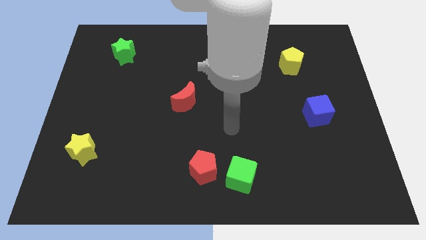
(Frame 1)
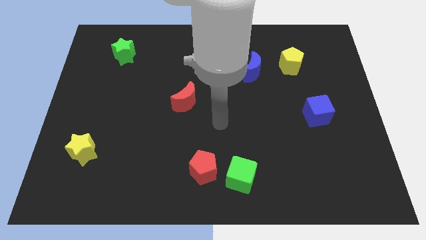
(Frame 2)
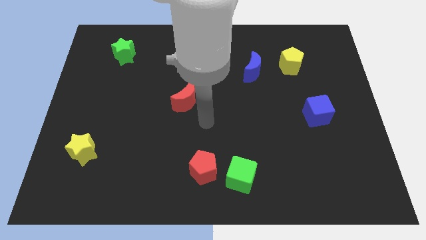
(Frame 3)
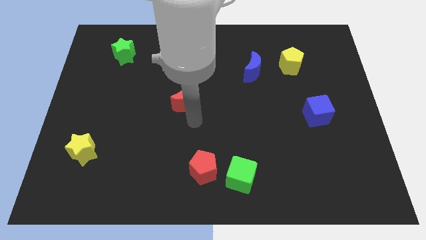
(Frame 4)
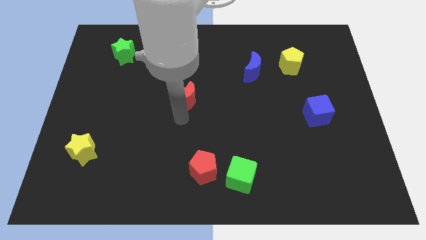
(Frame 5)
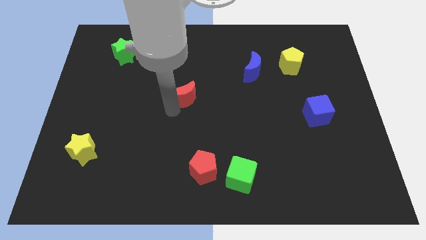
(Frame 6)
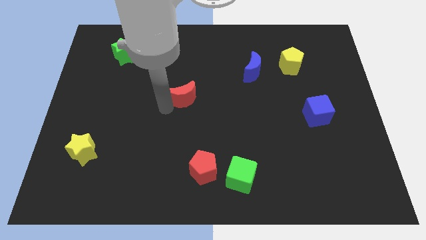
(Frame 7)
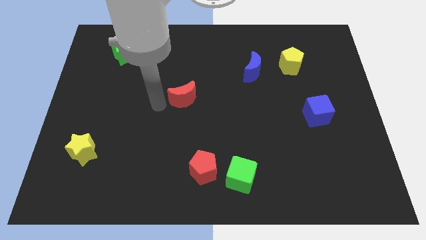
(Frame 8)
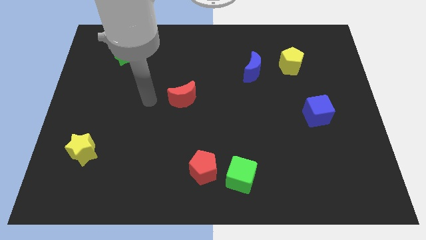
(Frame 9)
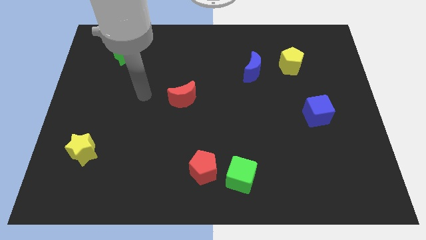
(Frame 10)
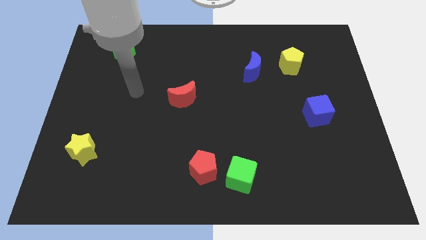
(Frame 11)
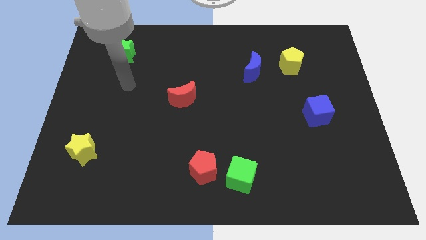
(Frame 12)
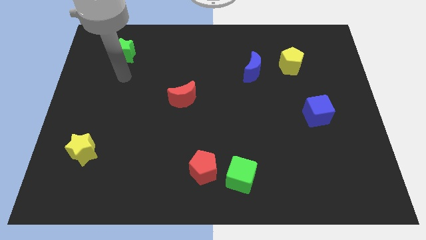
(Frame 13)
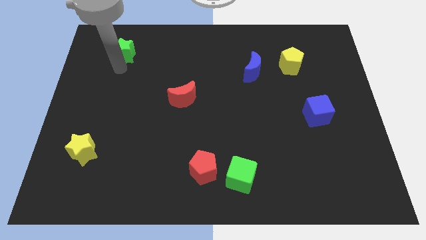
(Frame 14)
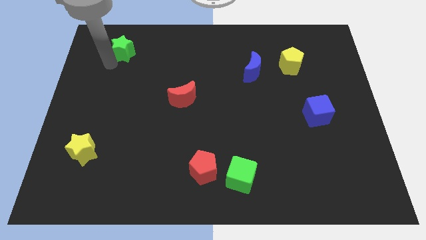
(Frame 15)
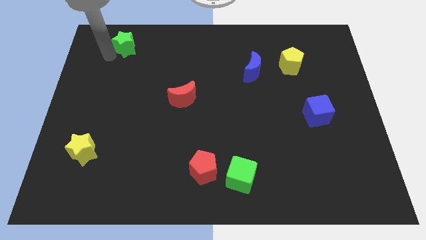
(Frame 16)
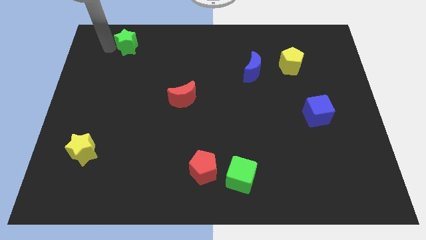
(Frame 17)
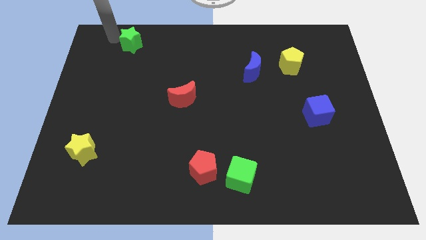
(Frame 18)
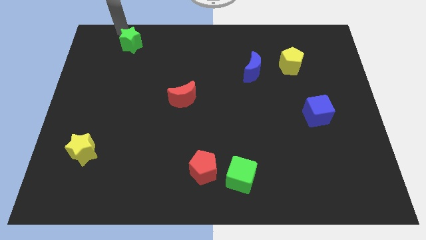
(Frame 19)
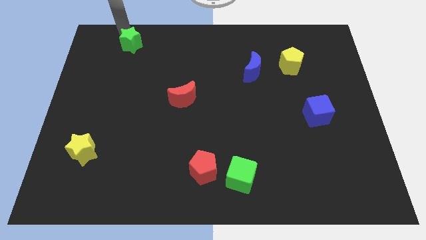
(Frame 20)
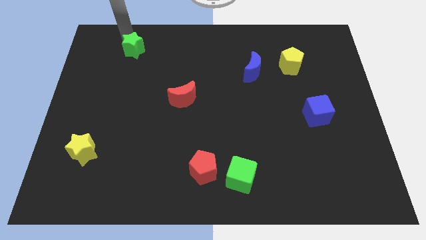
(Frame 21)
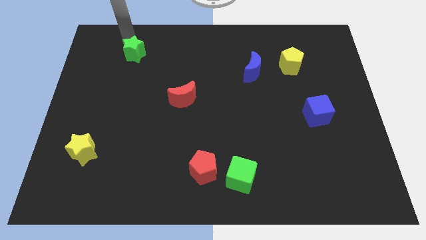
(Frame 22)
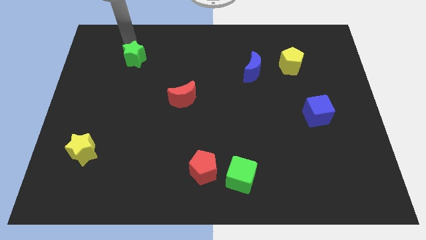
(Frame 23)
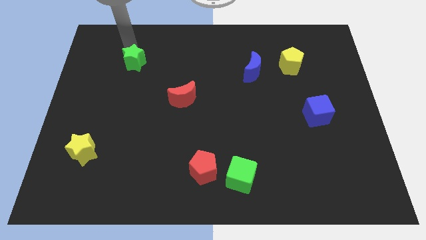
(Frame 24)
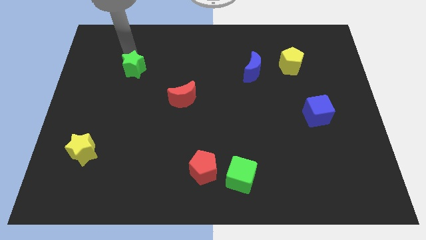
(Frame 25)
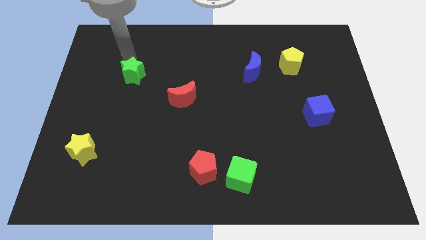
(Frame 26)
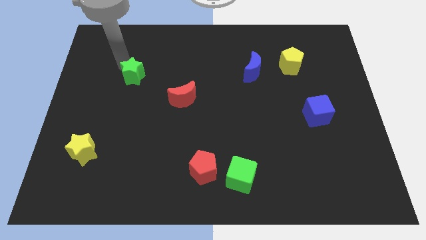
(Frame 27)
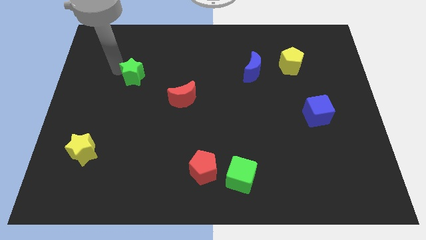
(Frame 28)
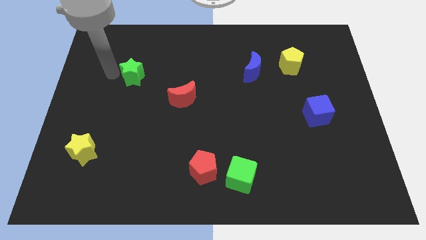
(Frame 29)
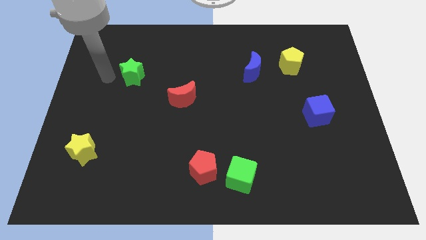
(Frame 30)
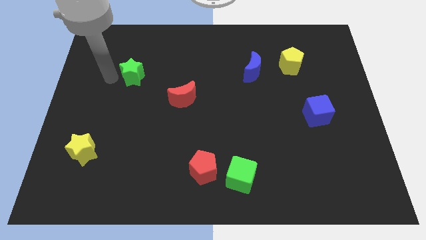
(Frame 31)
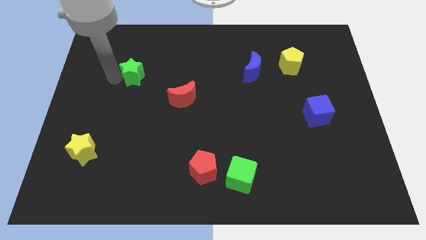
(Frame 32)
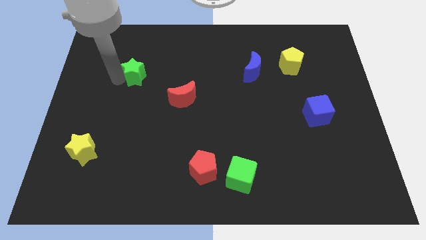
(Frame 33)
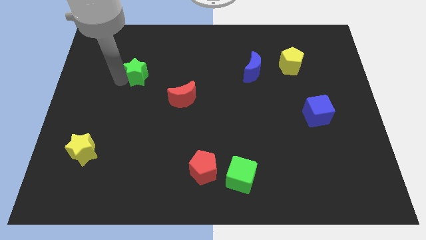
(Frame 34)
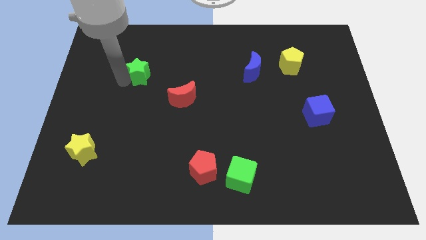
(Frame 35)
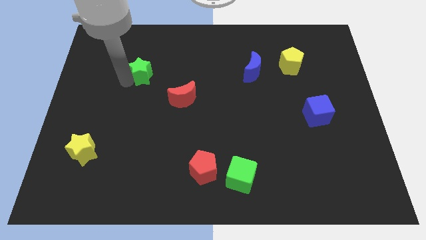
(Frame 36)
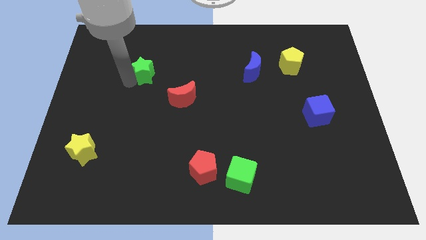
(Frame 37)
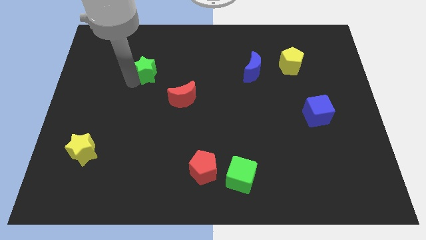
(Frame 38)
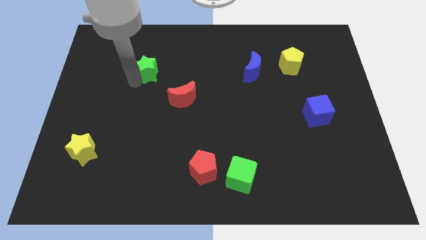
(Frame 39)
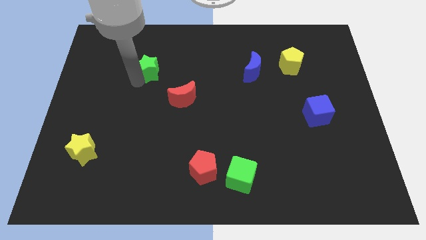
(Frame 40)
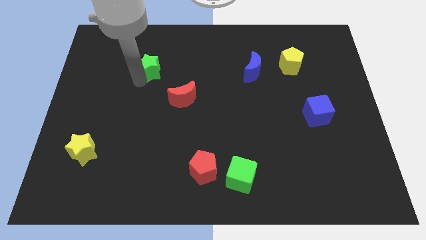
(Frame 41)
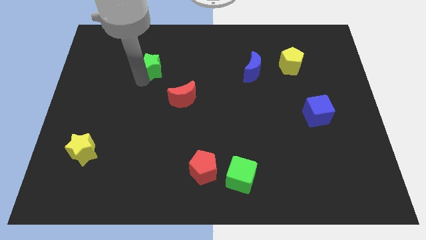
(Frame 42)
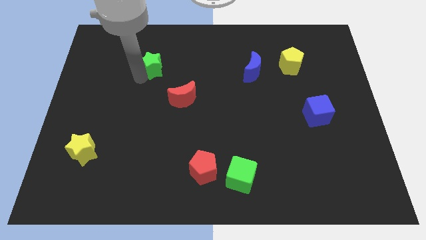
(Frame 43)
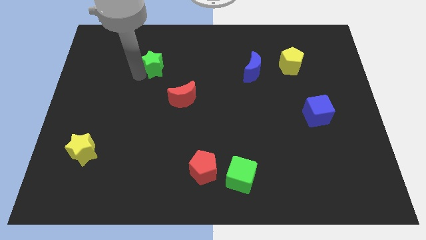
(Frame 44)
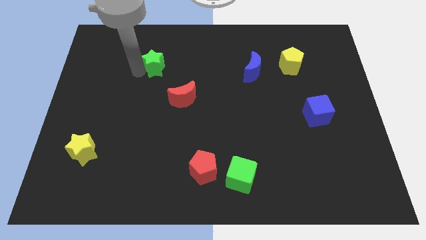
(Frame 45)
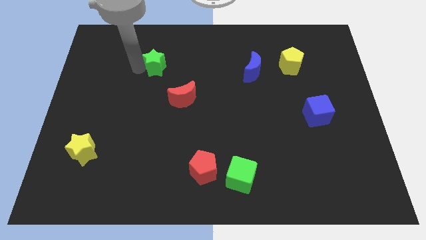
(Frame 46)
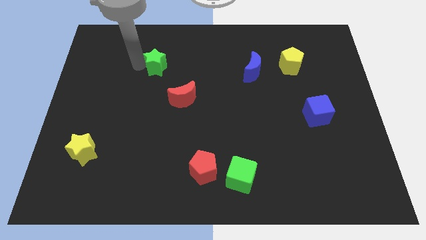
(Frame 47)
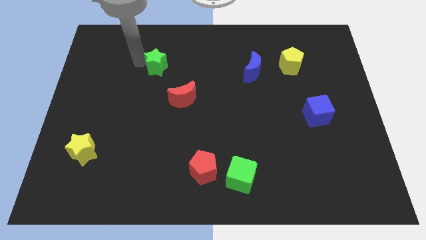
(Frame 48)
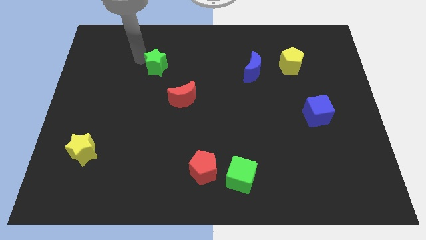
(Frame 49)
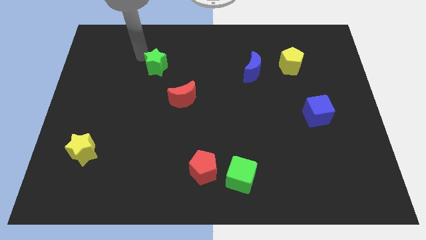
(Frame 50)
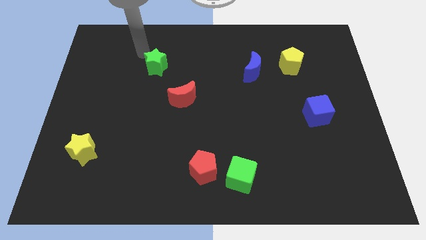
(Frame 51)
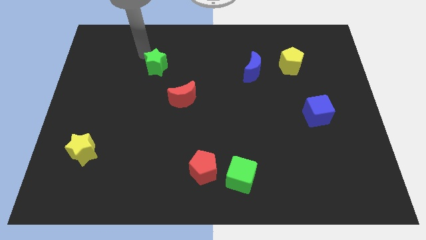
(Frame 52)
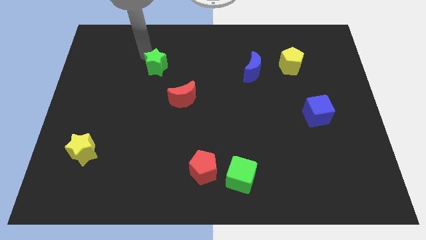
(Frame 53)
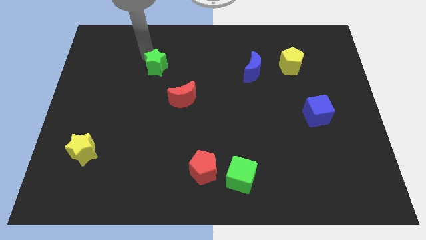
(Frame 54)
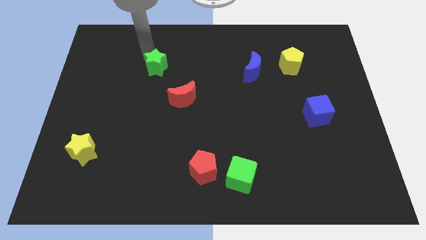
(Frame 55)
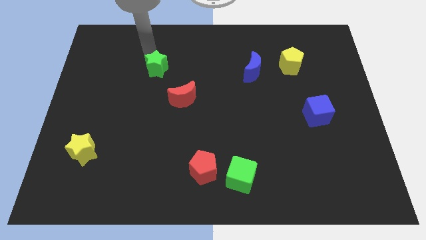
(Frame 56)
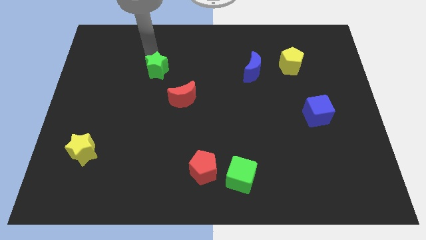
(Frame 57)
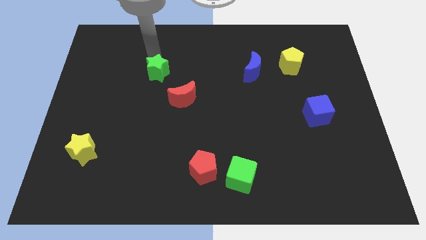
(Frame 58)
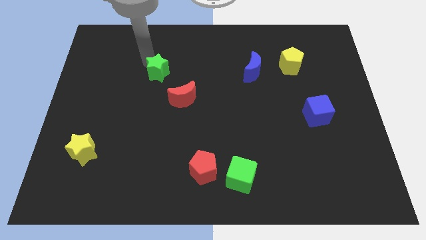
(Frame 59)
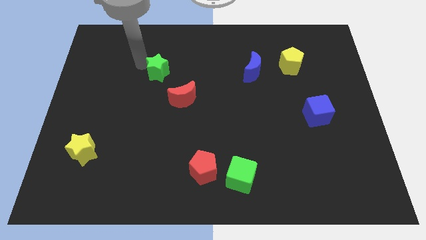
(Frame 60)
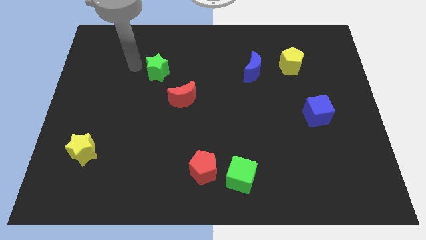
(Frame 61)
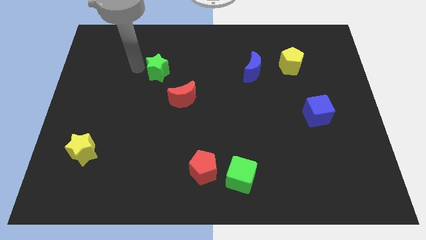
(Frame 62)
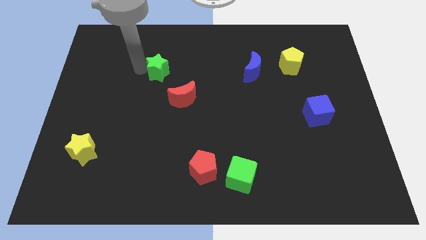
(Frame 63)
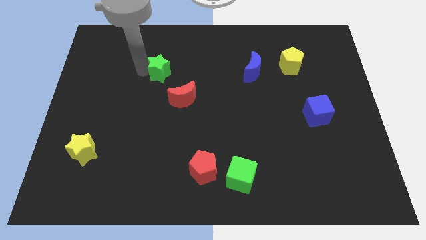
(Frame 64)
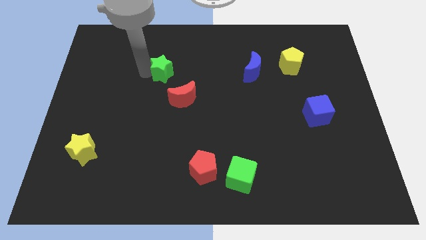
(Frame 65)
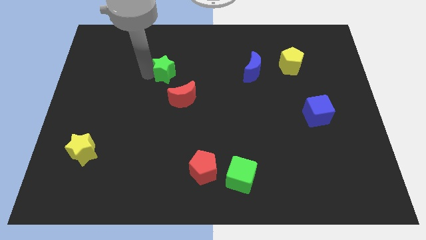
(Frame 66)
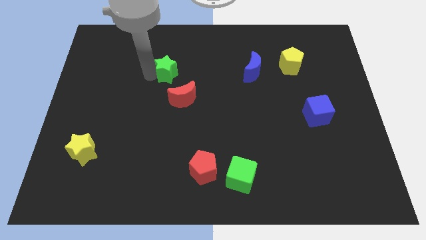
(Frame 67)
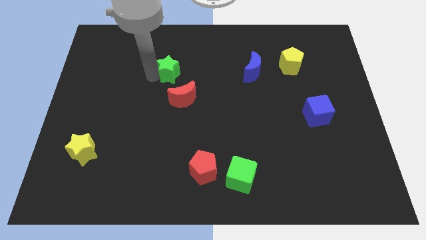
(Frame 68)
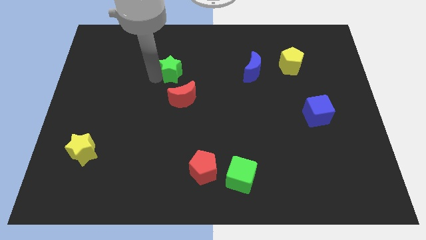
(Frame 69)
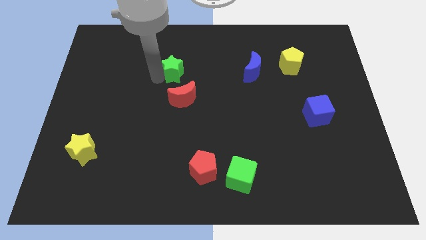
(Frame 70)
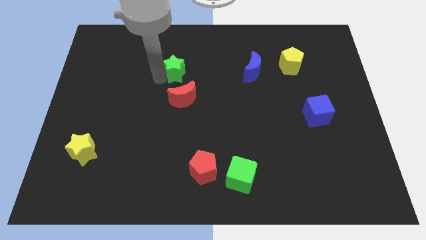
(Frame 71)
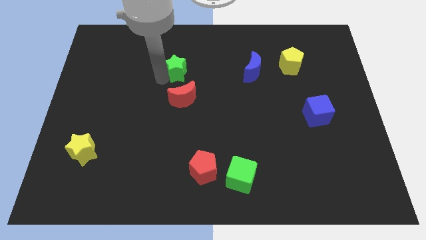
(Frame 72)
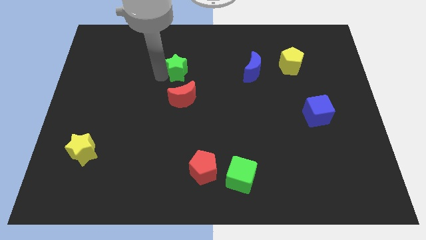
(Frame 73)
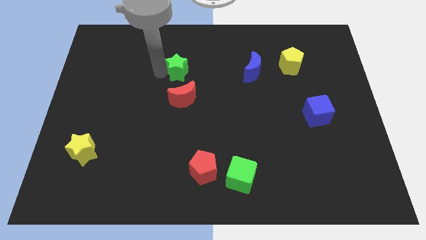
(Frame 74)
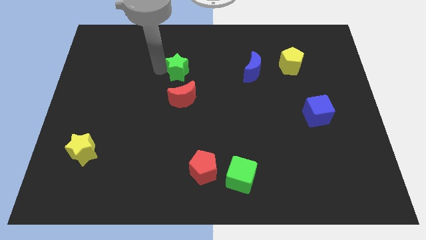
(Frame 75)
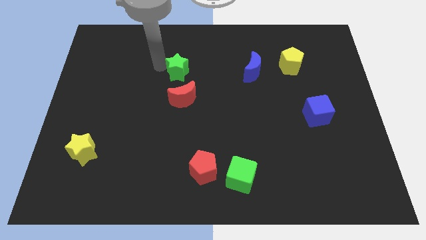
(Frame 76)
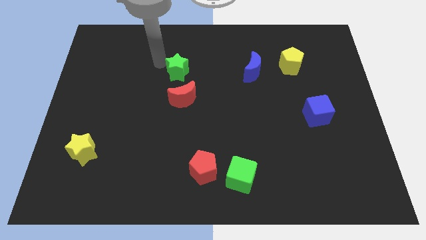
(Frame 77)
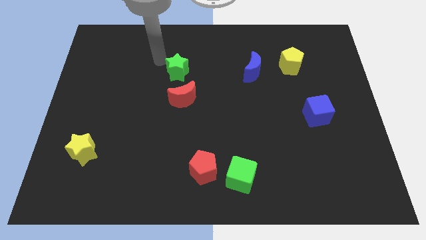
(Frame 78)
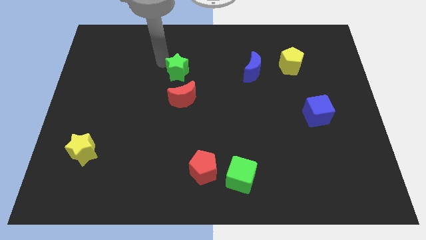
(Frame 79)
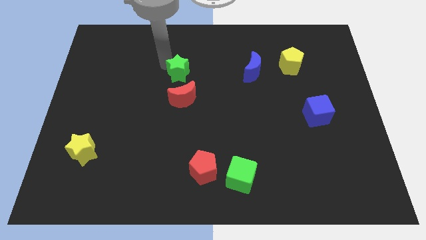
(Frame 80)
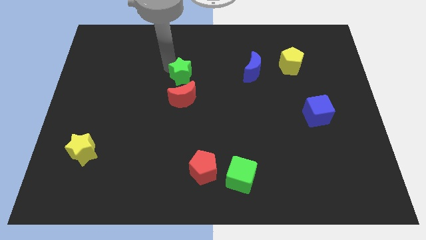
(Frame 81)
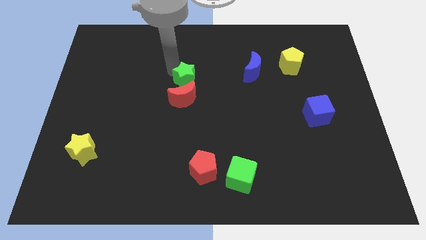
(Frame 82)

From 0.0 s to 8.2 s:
push the green star to the top right side of the red moon
